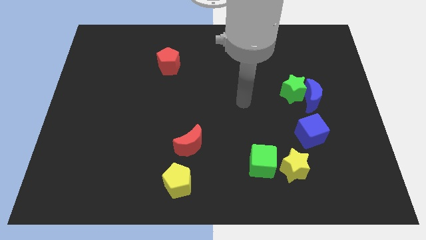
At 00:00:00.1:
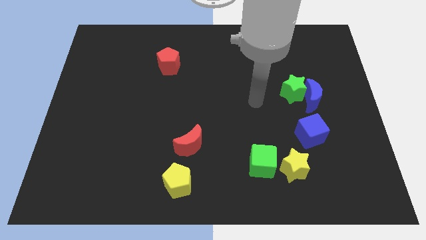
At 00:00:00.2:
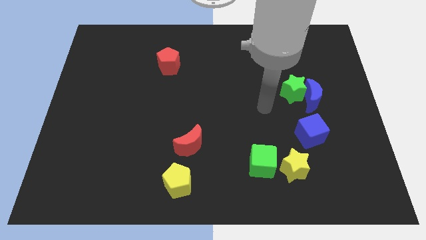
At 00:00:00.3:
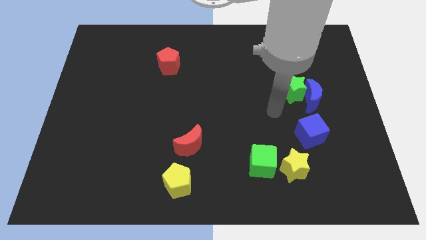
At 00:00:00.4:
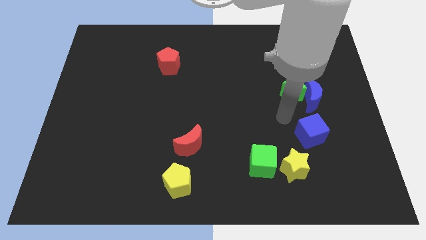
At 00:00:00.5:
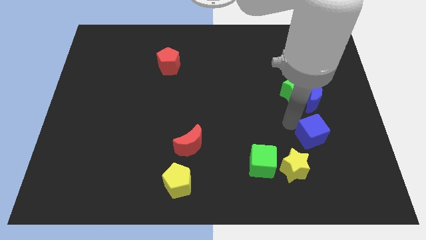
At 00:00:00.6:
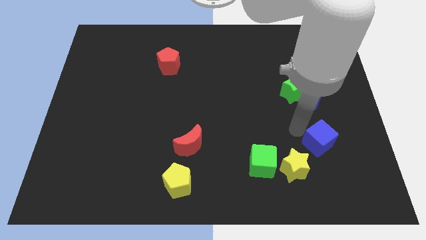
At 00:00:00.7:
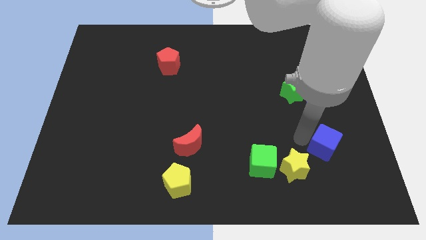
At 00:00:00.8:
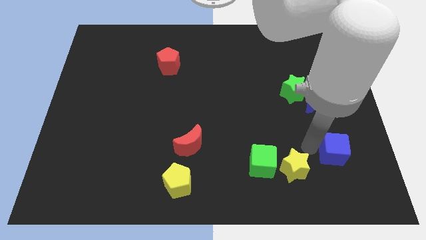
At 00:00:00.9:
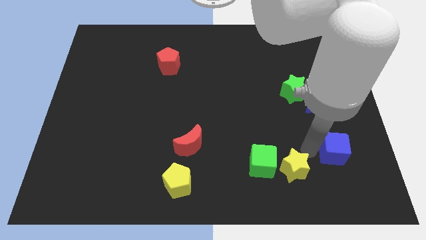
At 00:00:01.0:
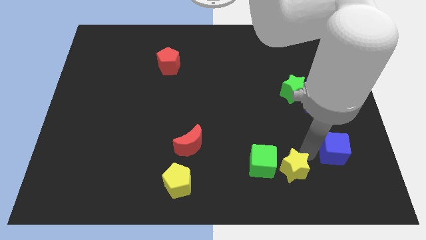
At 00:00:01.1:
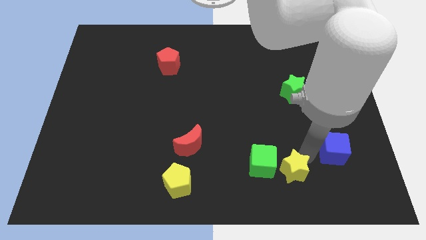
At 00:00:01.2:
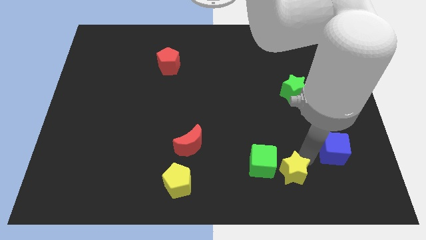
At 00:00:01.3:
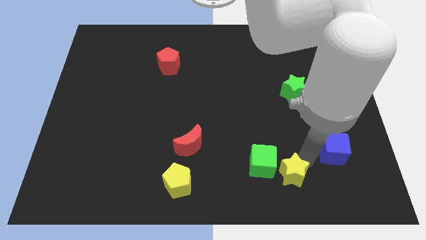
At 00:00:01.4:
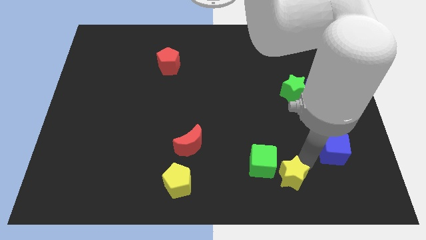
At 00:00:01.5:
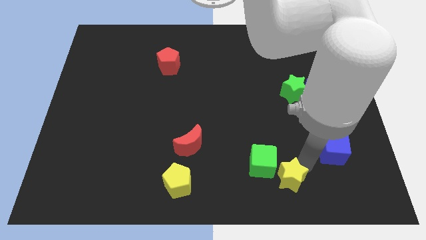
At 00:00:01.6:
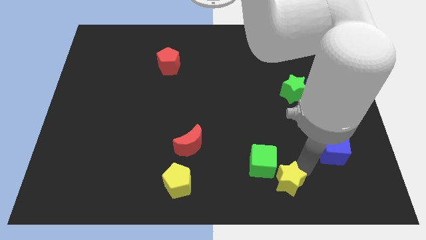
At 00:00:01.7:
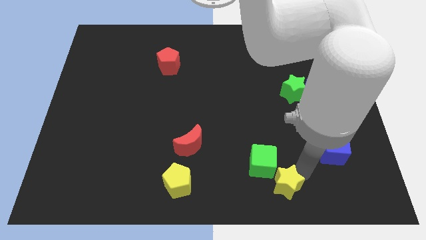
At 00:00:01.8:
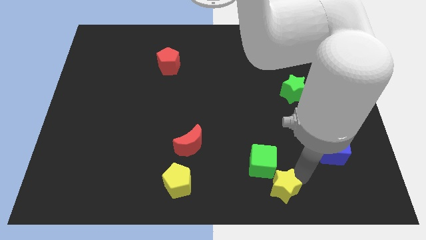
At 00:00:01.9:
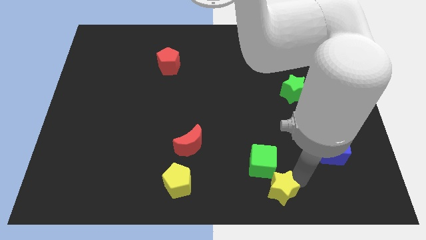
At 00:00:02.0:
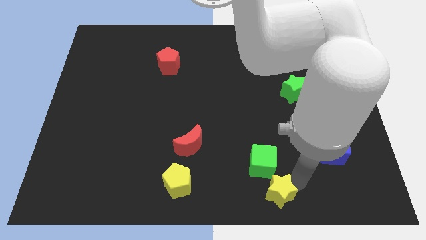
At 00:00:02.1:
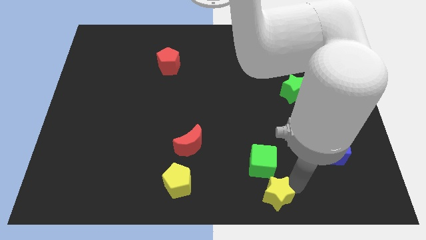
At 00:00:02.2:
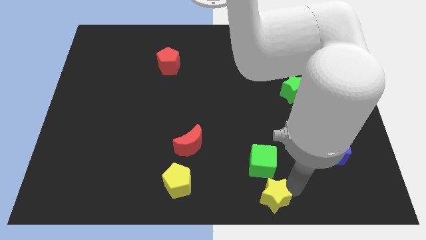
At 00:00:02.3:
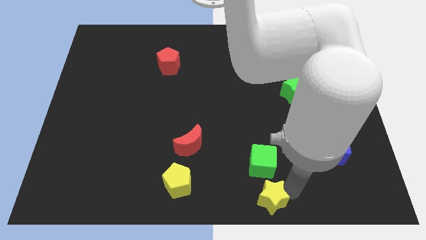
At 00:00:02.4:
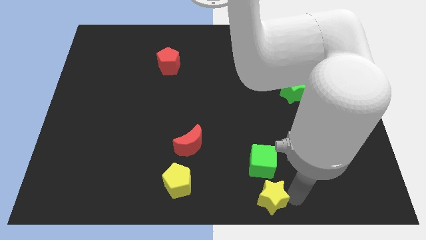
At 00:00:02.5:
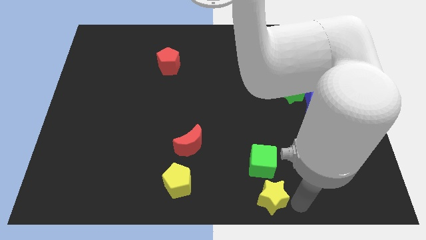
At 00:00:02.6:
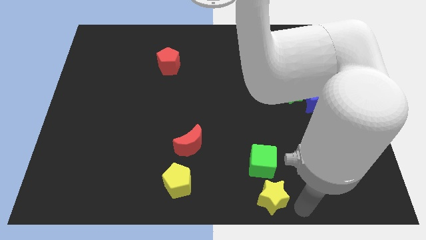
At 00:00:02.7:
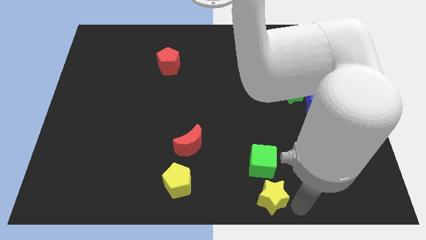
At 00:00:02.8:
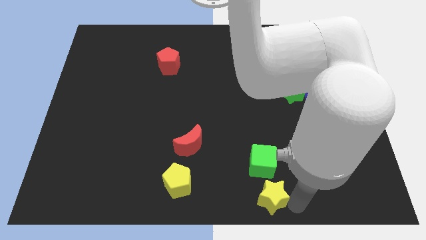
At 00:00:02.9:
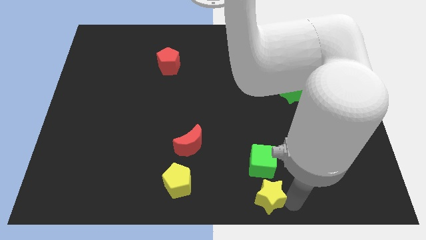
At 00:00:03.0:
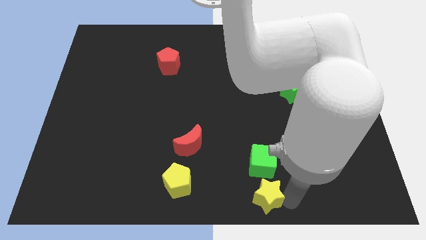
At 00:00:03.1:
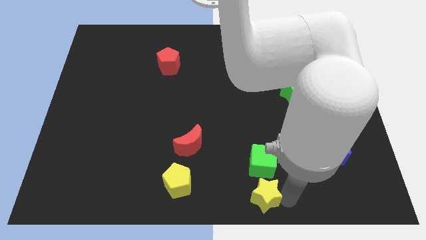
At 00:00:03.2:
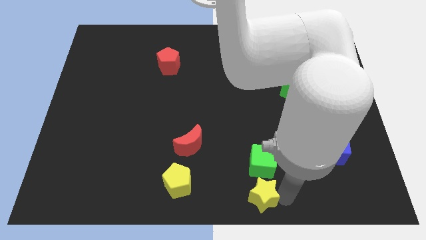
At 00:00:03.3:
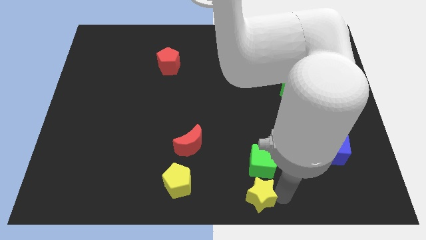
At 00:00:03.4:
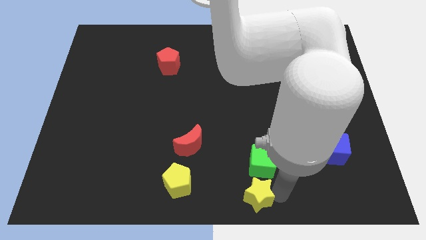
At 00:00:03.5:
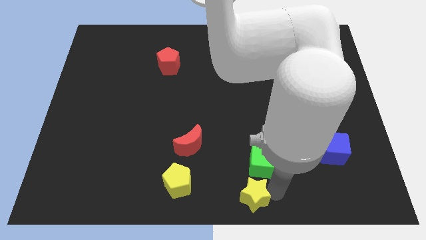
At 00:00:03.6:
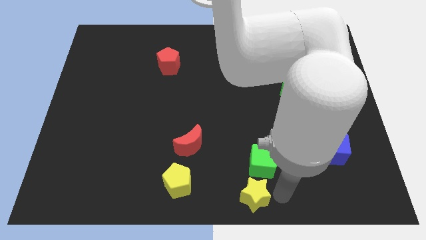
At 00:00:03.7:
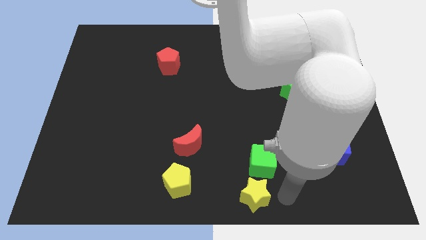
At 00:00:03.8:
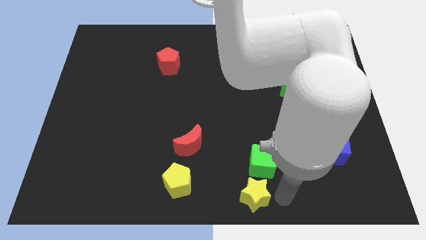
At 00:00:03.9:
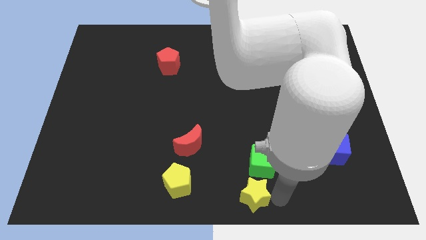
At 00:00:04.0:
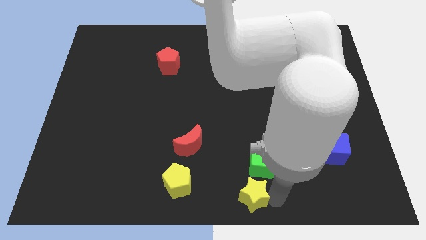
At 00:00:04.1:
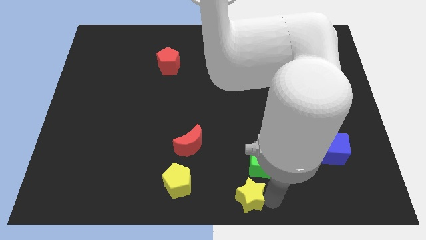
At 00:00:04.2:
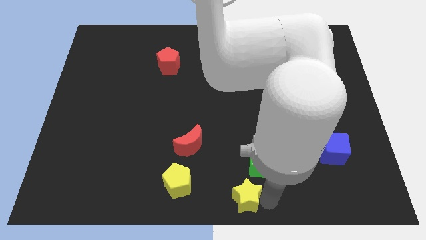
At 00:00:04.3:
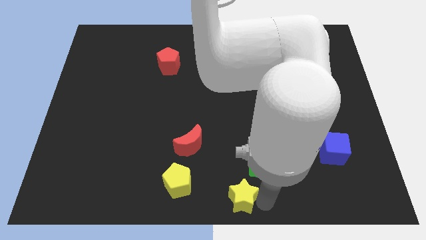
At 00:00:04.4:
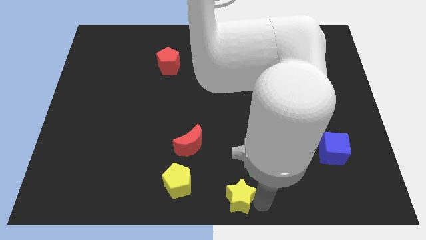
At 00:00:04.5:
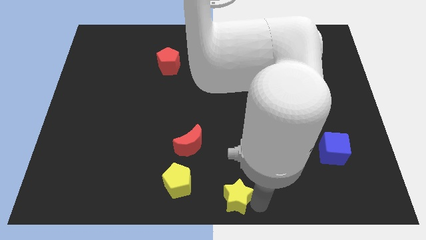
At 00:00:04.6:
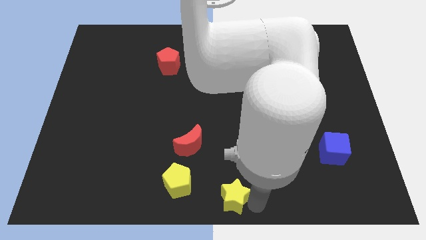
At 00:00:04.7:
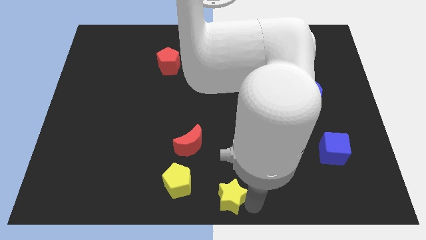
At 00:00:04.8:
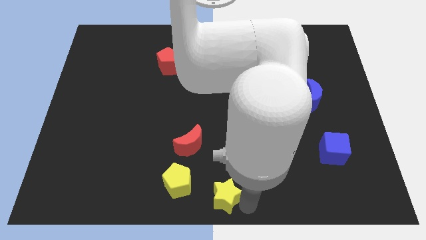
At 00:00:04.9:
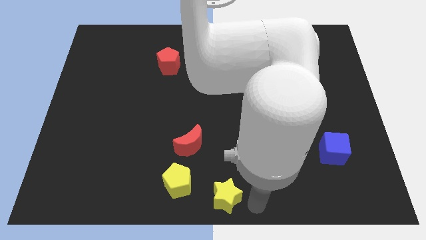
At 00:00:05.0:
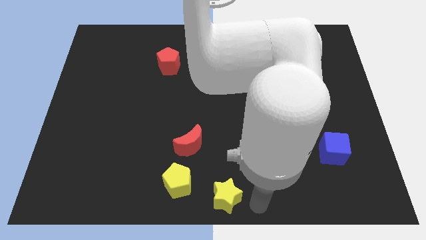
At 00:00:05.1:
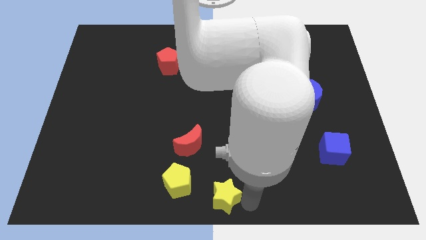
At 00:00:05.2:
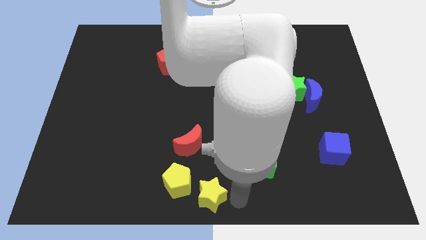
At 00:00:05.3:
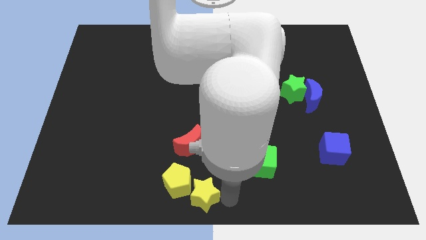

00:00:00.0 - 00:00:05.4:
move the yellow star to the yellow pentagon

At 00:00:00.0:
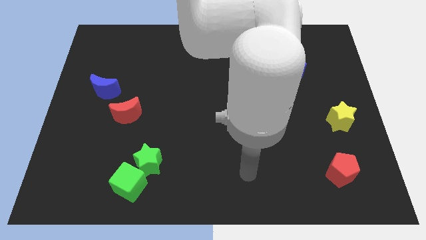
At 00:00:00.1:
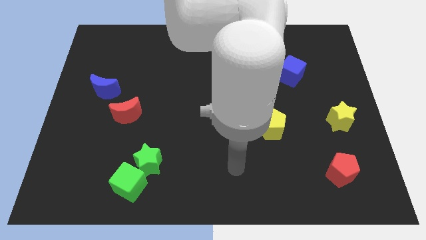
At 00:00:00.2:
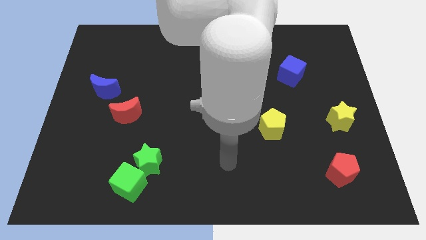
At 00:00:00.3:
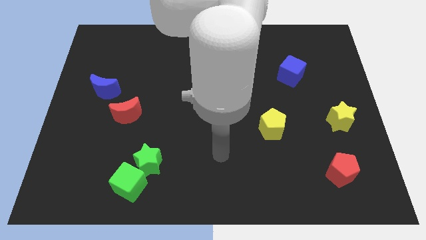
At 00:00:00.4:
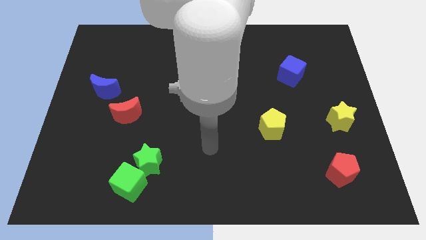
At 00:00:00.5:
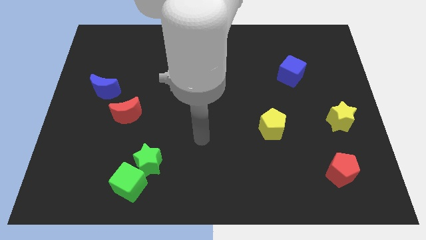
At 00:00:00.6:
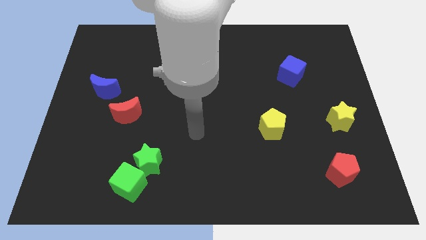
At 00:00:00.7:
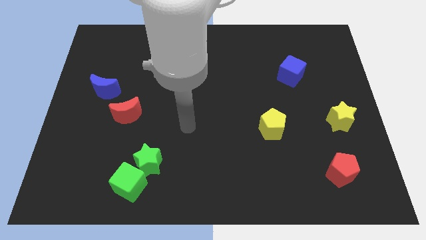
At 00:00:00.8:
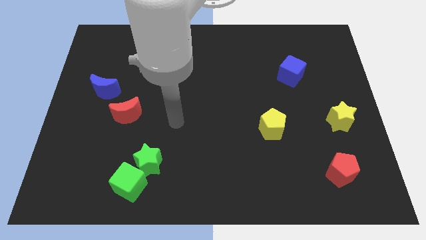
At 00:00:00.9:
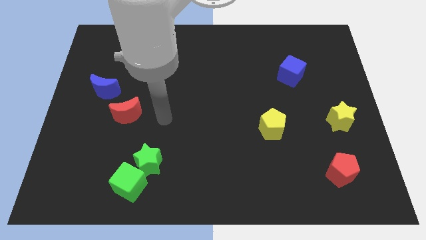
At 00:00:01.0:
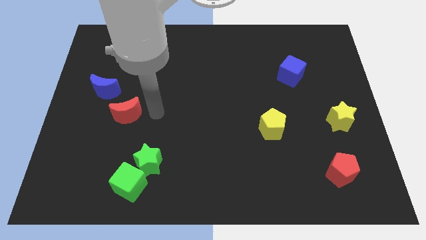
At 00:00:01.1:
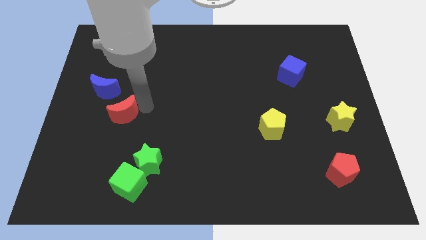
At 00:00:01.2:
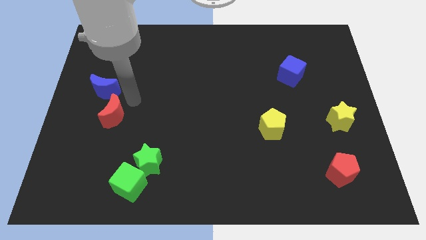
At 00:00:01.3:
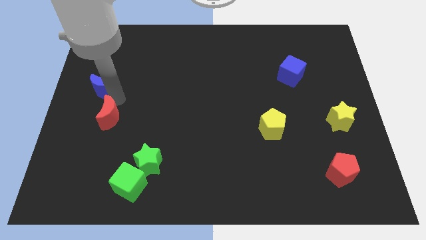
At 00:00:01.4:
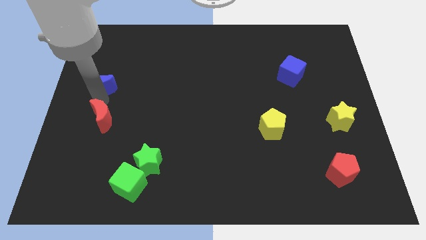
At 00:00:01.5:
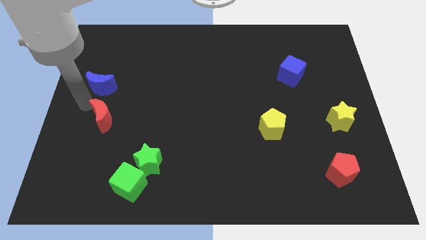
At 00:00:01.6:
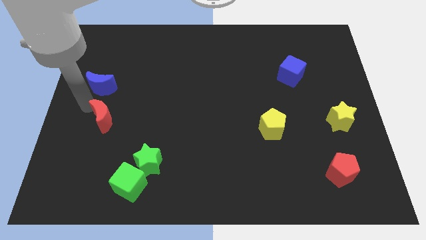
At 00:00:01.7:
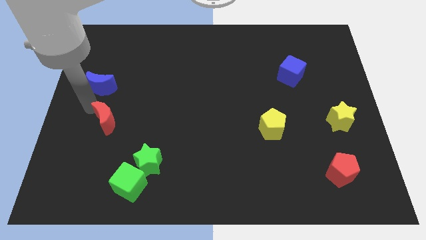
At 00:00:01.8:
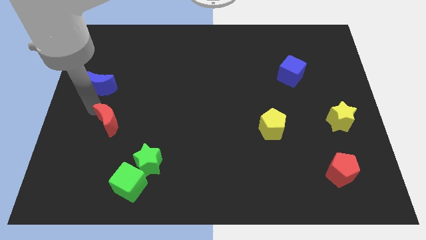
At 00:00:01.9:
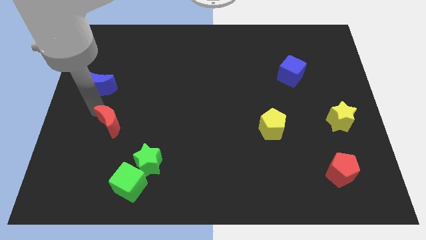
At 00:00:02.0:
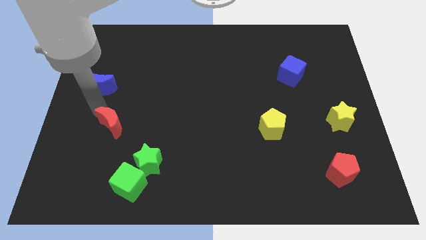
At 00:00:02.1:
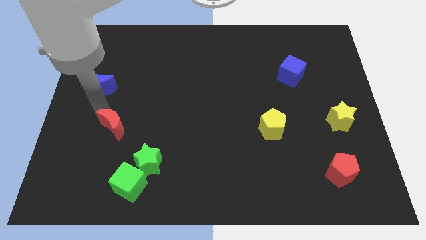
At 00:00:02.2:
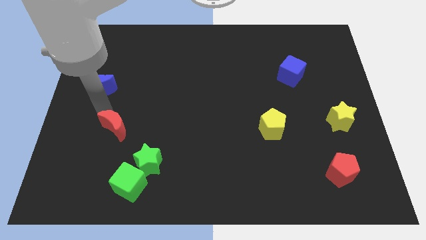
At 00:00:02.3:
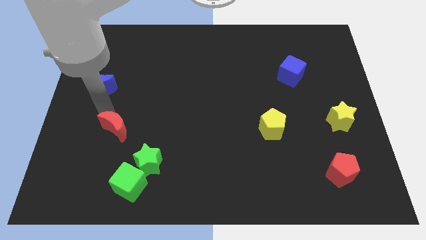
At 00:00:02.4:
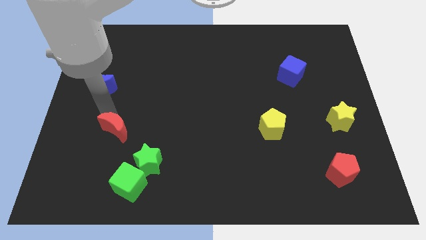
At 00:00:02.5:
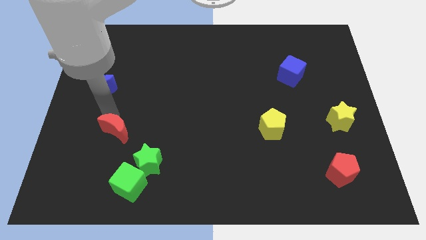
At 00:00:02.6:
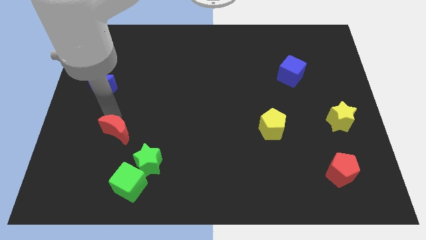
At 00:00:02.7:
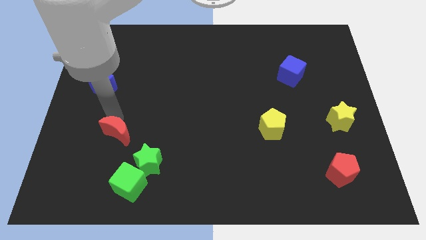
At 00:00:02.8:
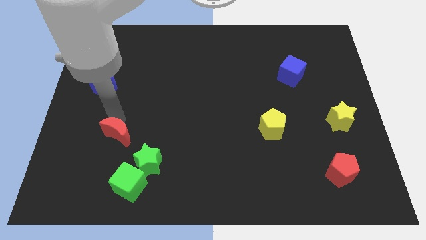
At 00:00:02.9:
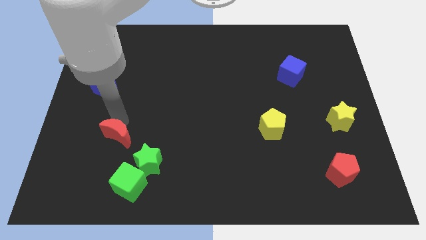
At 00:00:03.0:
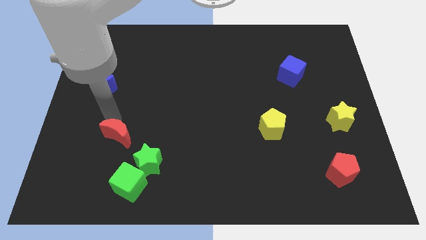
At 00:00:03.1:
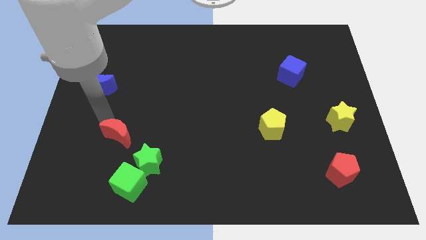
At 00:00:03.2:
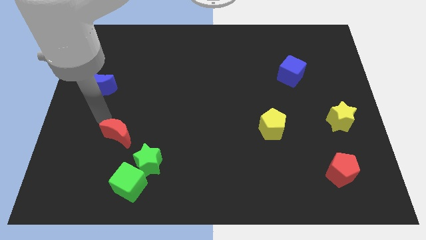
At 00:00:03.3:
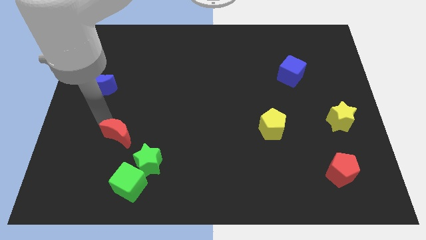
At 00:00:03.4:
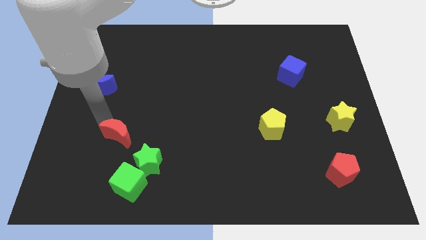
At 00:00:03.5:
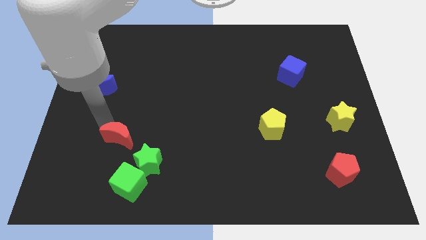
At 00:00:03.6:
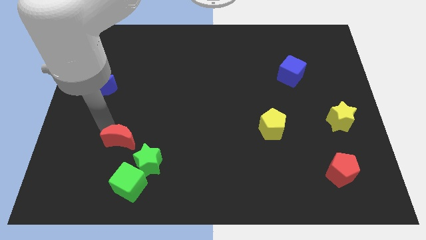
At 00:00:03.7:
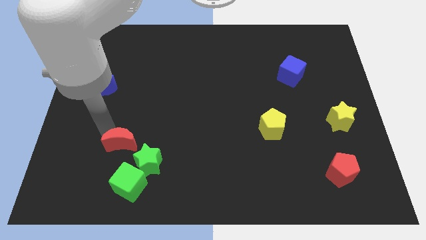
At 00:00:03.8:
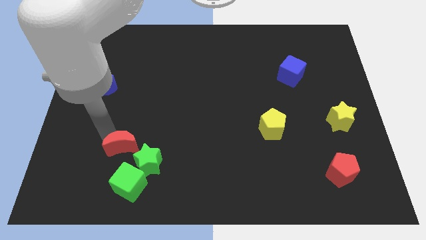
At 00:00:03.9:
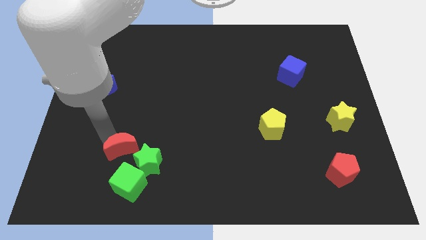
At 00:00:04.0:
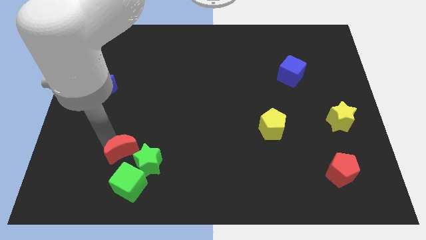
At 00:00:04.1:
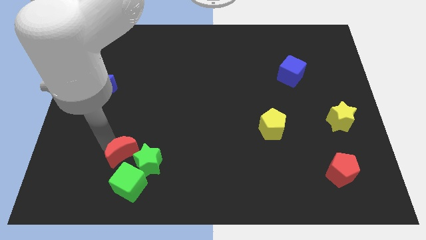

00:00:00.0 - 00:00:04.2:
slide the red moon next to the green star
